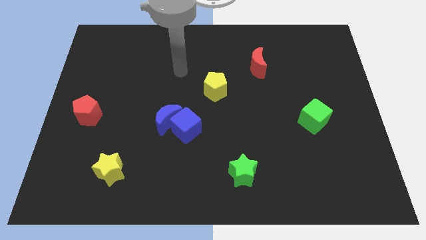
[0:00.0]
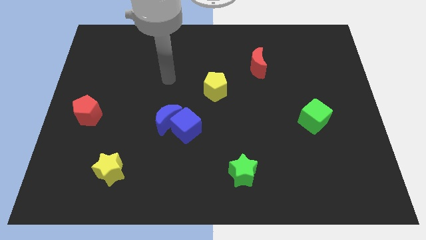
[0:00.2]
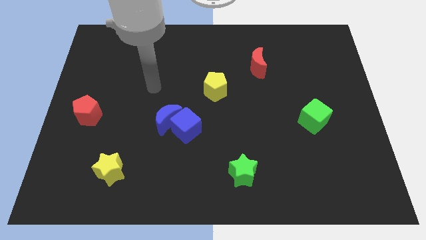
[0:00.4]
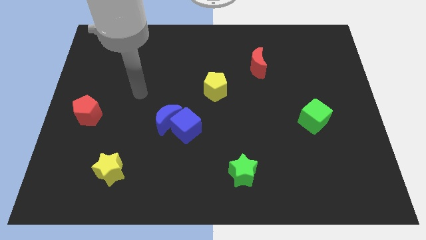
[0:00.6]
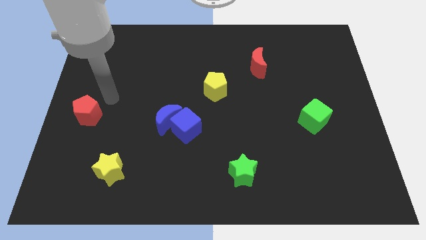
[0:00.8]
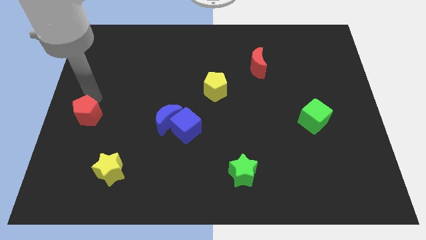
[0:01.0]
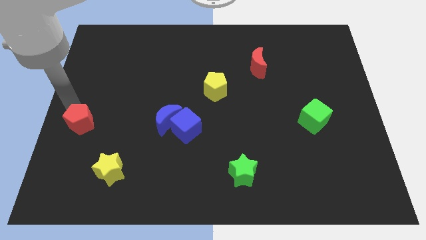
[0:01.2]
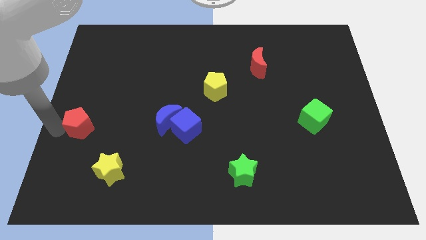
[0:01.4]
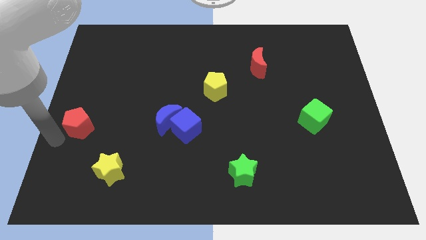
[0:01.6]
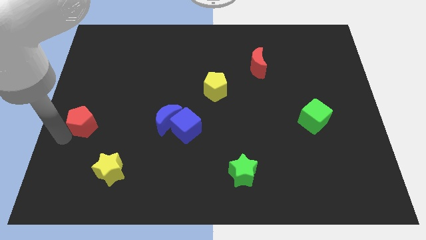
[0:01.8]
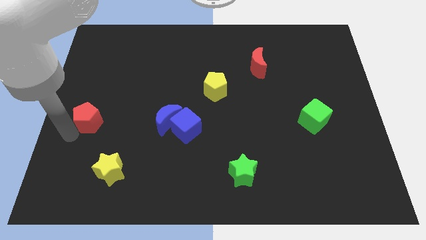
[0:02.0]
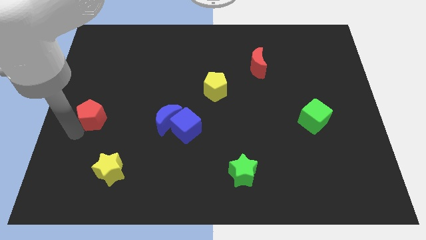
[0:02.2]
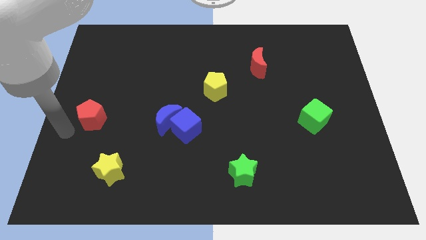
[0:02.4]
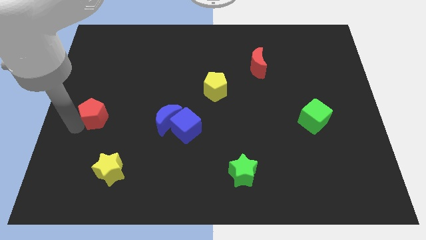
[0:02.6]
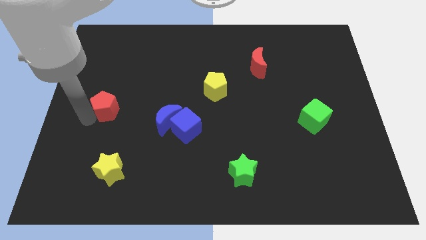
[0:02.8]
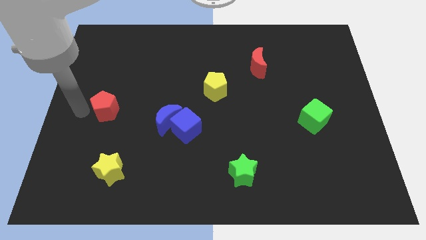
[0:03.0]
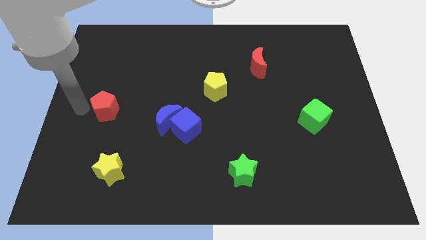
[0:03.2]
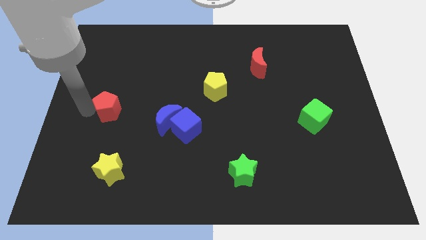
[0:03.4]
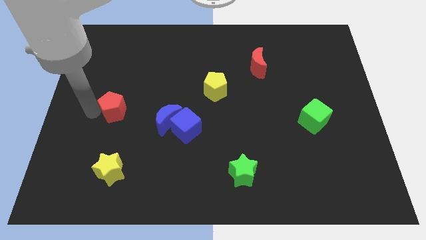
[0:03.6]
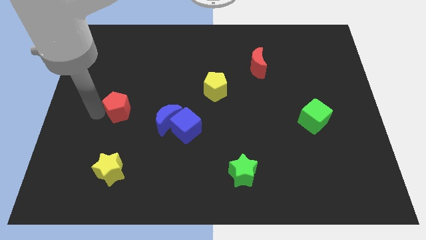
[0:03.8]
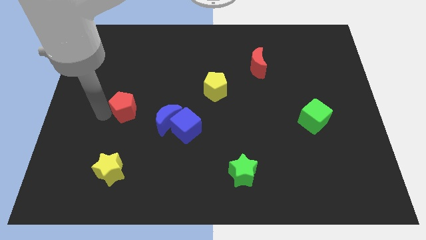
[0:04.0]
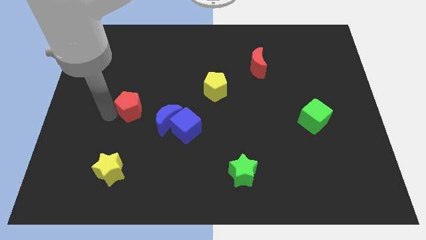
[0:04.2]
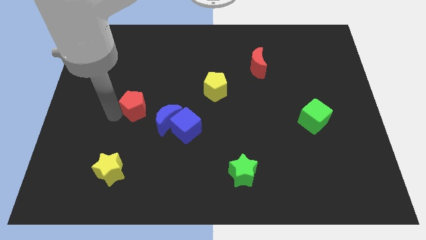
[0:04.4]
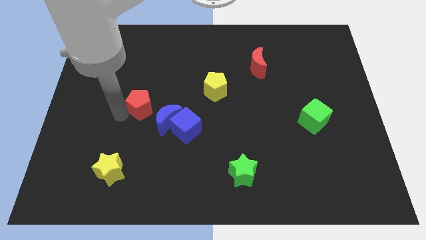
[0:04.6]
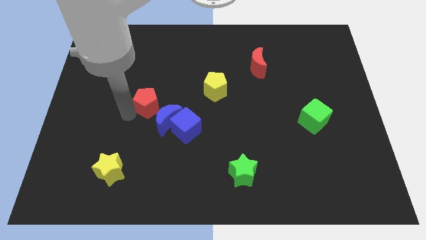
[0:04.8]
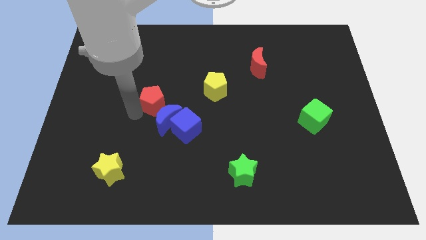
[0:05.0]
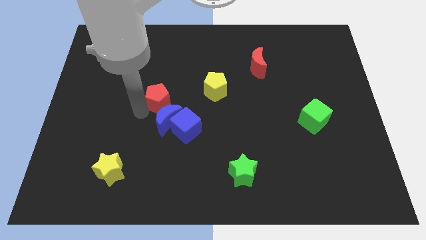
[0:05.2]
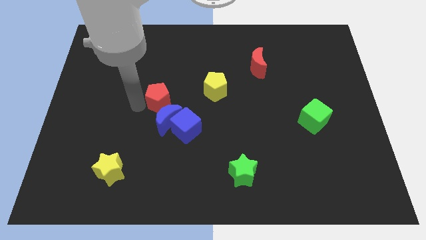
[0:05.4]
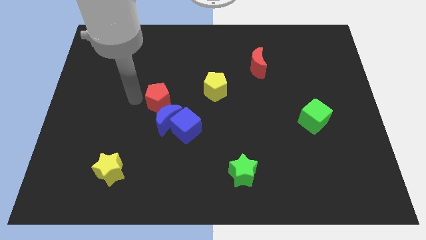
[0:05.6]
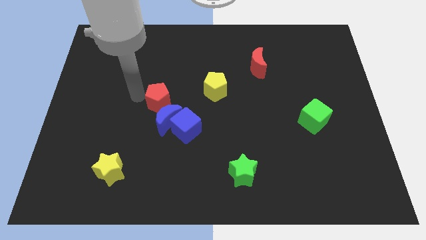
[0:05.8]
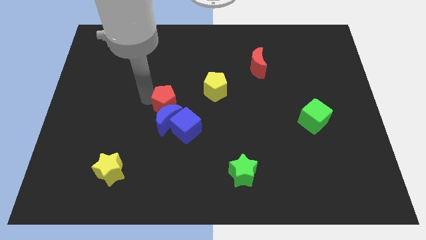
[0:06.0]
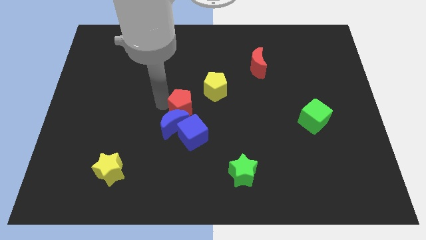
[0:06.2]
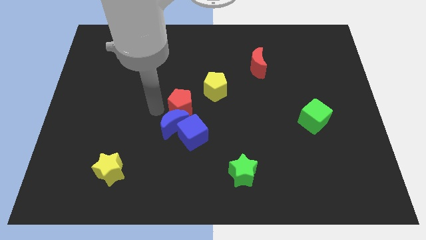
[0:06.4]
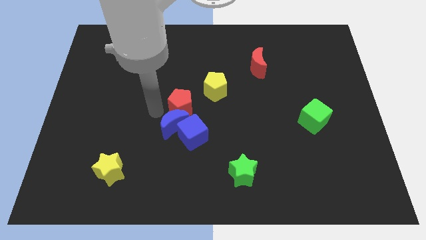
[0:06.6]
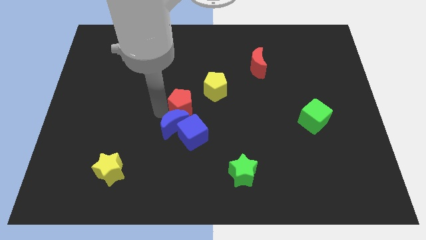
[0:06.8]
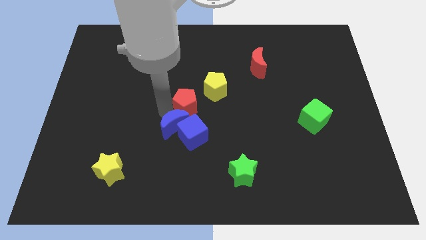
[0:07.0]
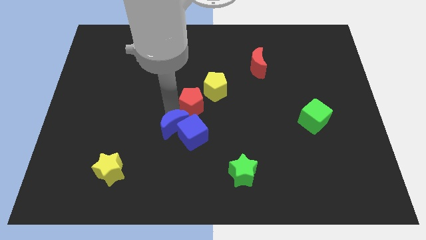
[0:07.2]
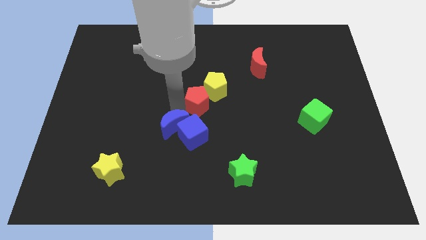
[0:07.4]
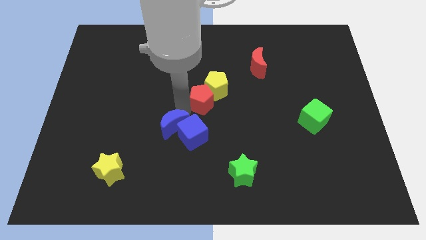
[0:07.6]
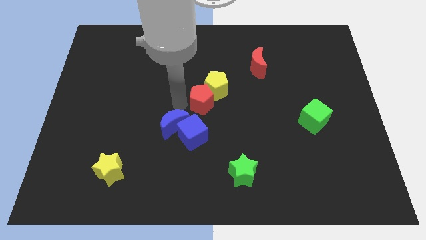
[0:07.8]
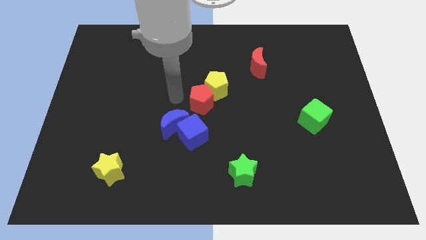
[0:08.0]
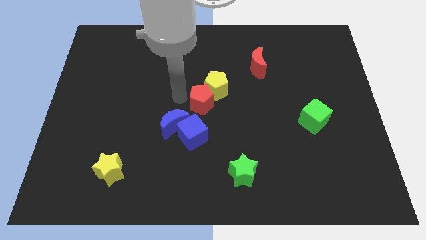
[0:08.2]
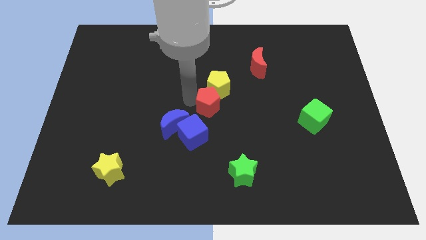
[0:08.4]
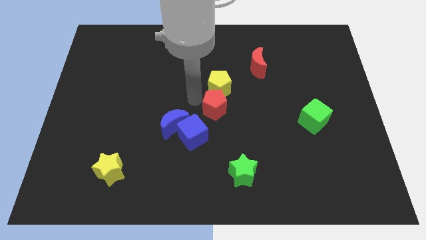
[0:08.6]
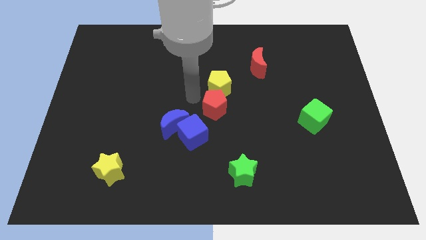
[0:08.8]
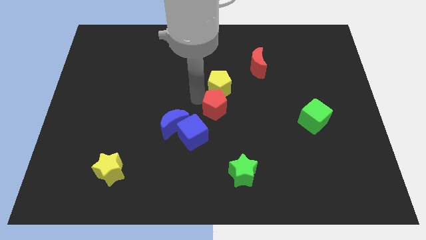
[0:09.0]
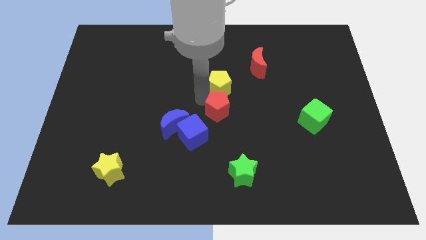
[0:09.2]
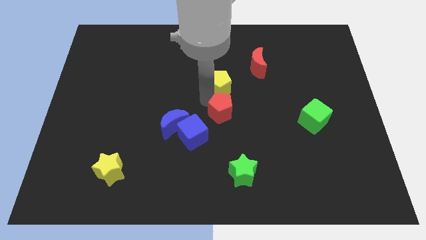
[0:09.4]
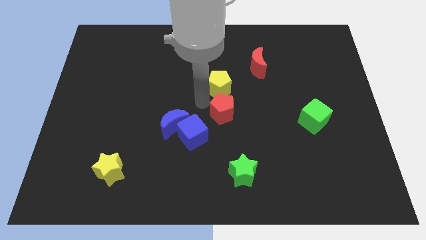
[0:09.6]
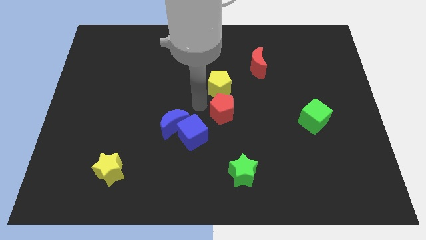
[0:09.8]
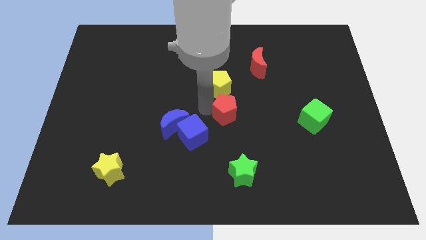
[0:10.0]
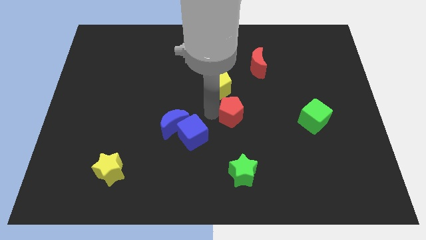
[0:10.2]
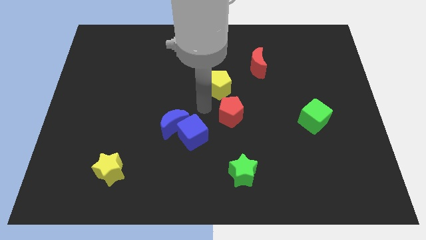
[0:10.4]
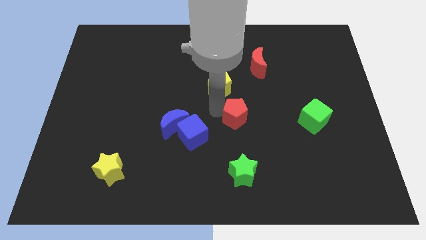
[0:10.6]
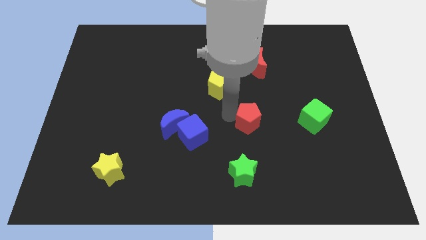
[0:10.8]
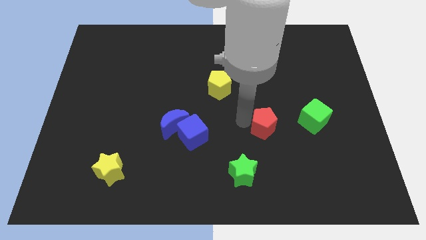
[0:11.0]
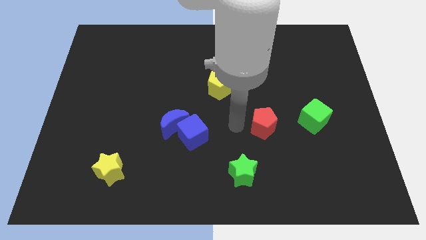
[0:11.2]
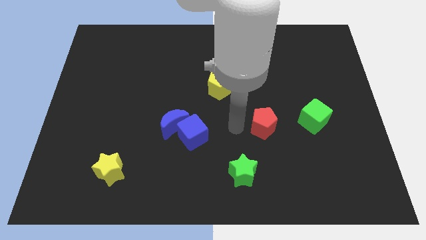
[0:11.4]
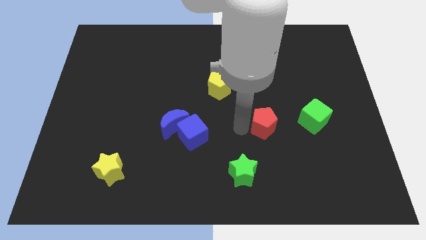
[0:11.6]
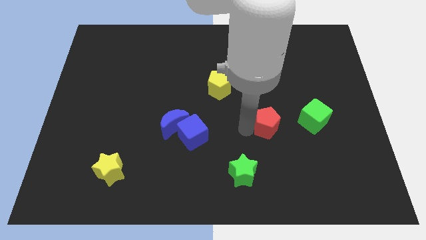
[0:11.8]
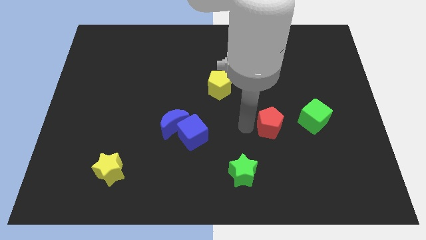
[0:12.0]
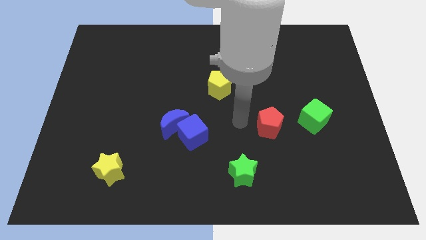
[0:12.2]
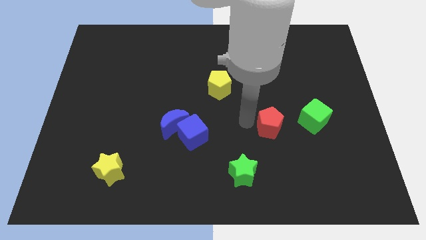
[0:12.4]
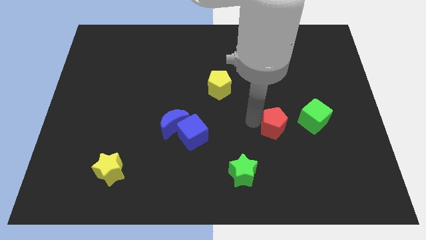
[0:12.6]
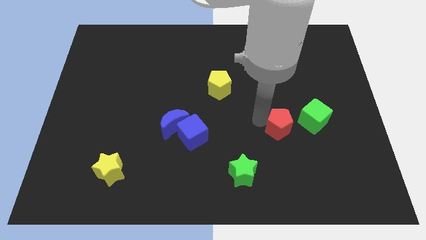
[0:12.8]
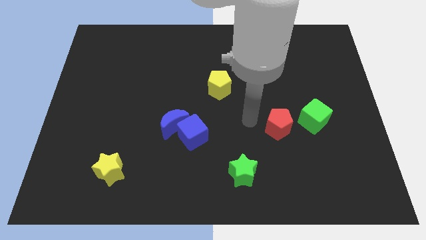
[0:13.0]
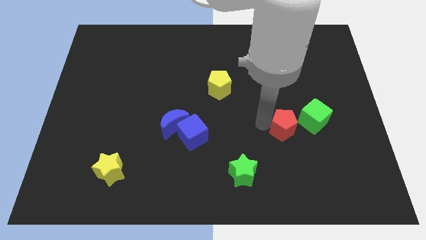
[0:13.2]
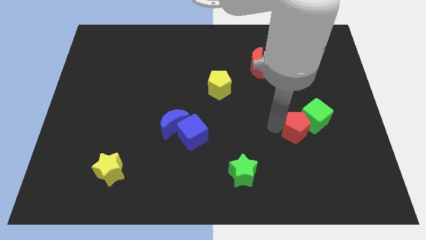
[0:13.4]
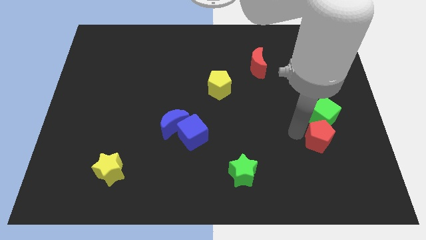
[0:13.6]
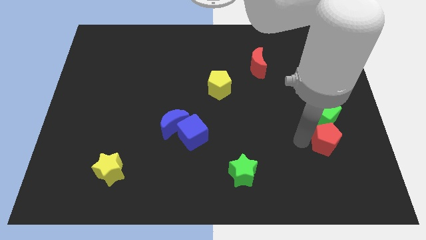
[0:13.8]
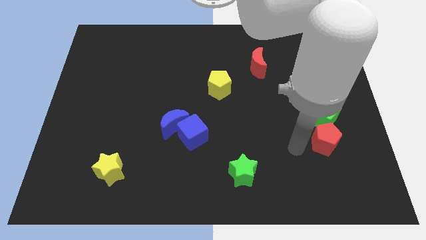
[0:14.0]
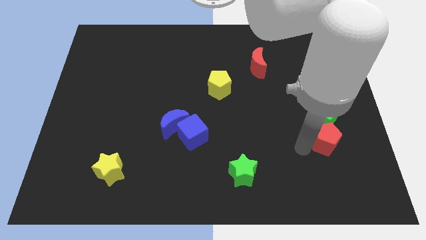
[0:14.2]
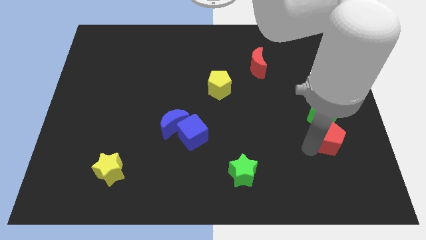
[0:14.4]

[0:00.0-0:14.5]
put the red pentagon to the bottom right of the green cube

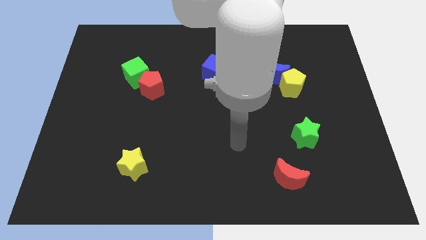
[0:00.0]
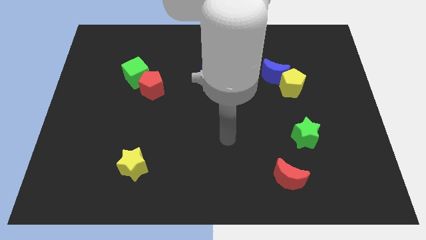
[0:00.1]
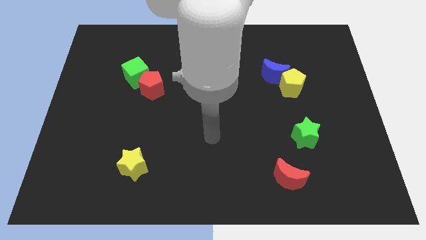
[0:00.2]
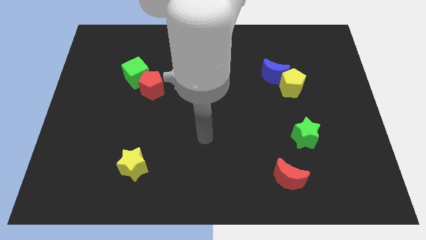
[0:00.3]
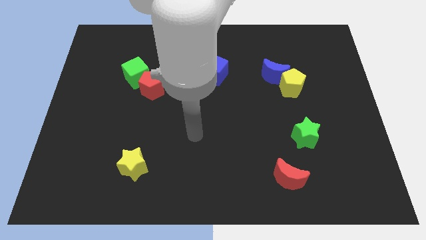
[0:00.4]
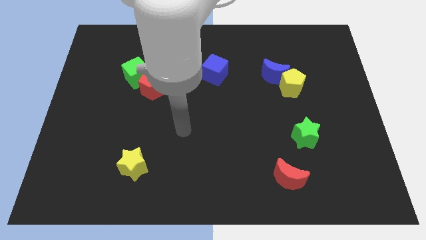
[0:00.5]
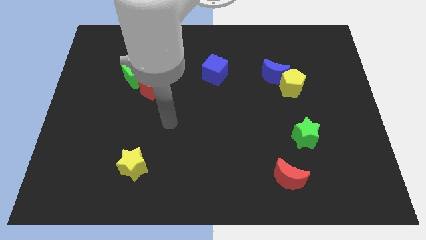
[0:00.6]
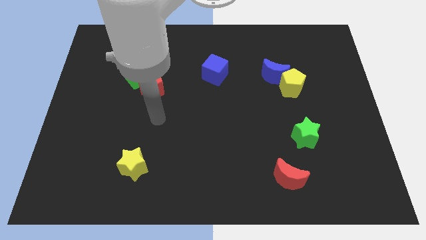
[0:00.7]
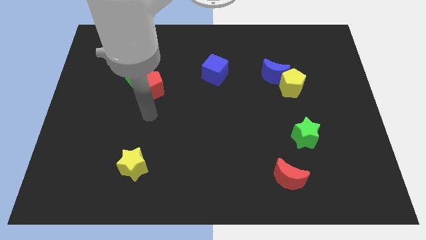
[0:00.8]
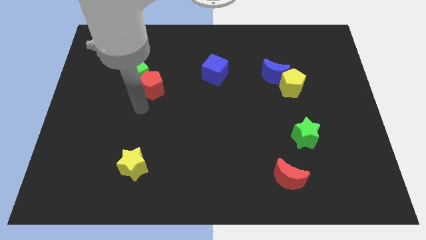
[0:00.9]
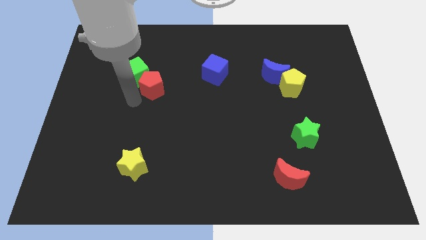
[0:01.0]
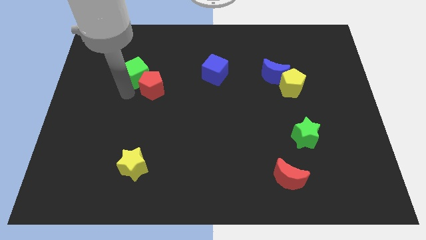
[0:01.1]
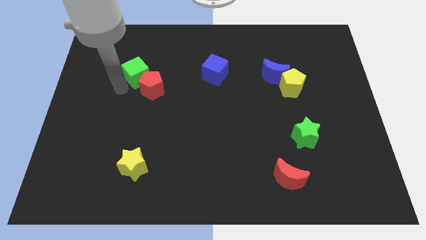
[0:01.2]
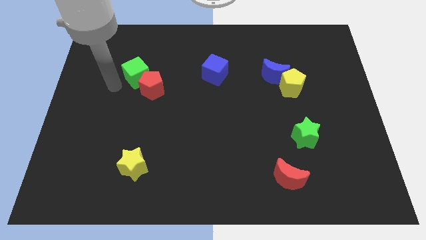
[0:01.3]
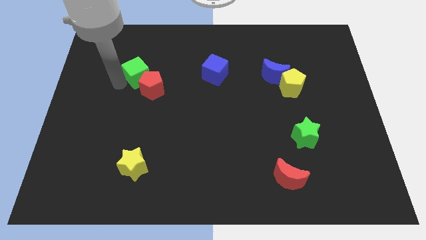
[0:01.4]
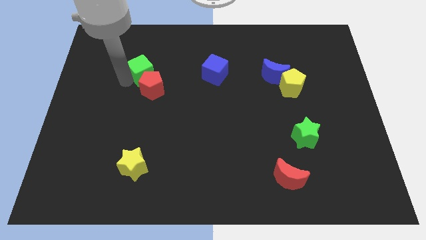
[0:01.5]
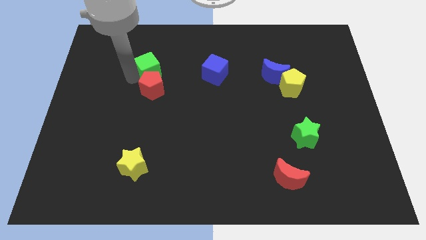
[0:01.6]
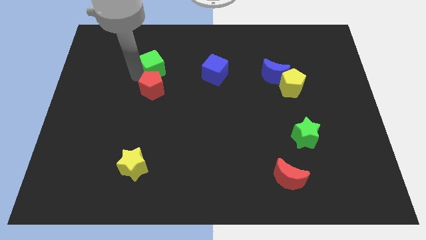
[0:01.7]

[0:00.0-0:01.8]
put the green cube to the left of the blue cube
